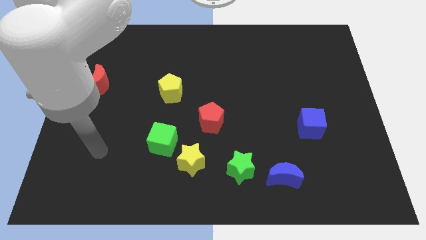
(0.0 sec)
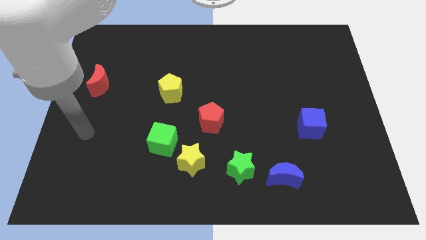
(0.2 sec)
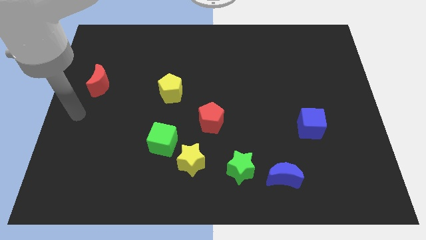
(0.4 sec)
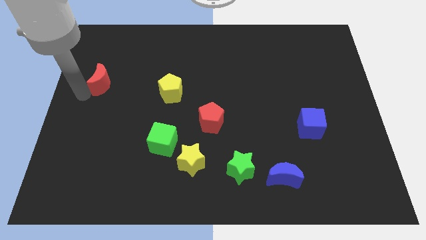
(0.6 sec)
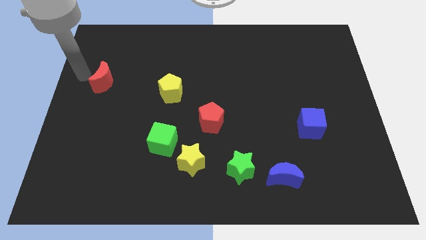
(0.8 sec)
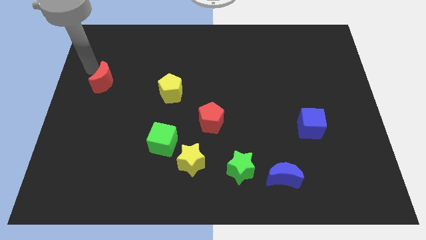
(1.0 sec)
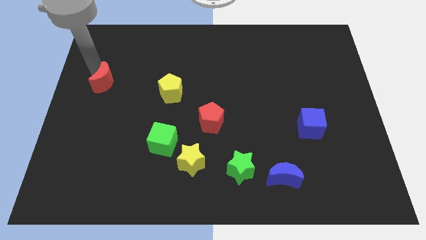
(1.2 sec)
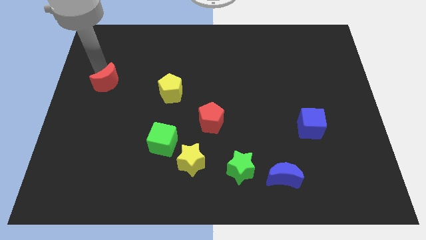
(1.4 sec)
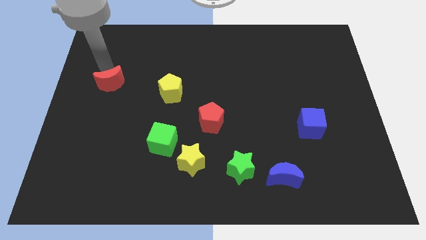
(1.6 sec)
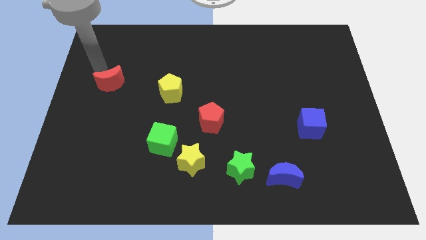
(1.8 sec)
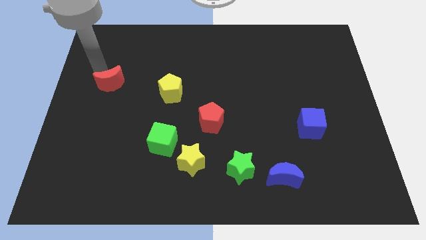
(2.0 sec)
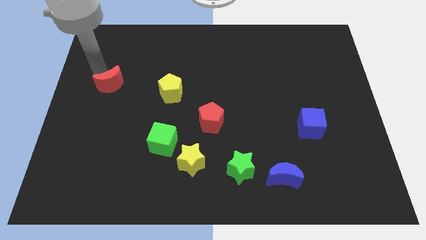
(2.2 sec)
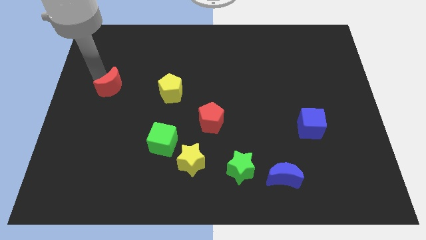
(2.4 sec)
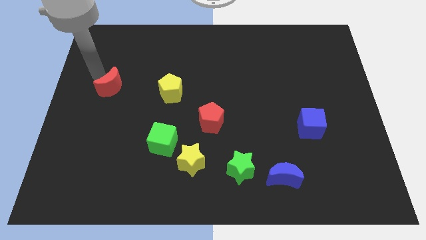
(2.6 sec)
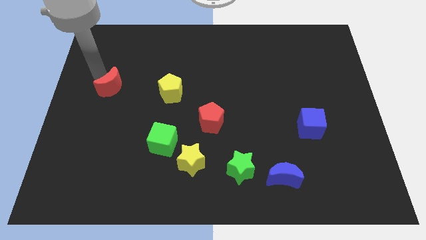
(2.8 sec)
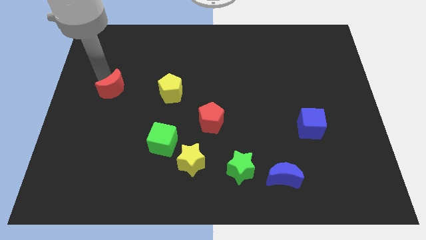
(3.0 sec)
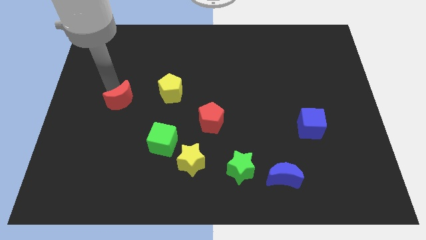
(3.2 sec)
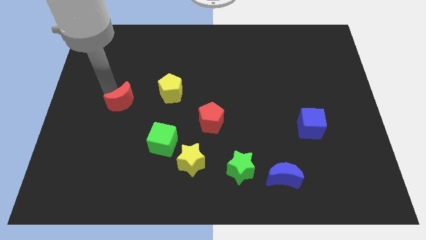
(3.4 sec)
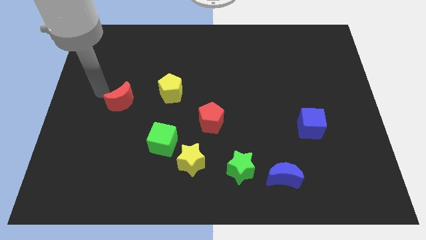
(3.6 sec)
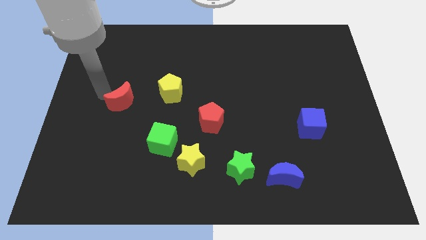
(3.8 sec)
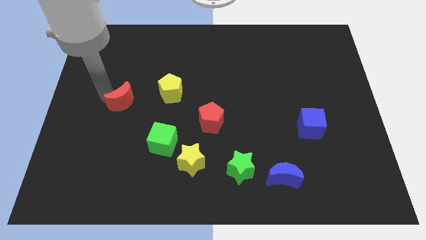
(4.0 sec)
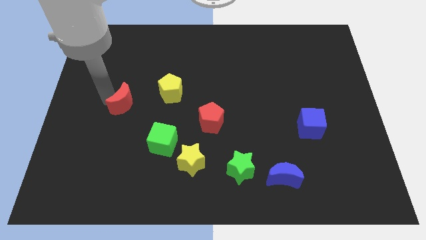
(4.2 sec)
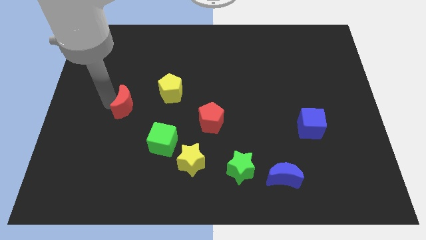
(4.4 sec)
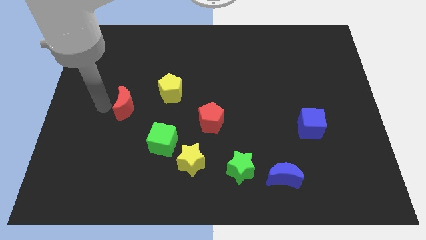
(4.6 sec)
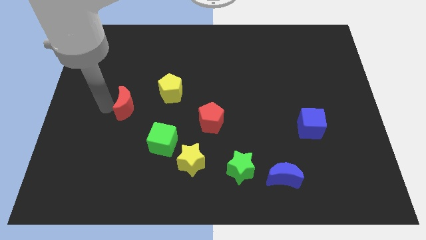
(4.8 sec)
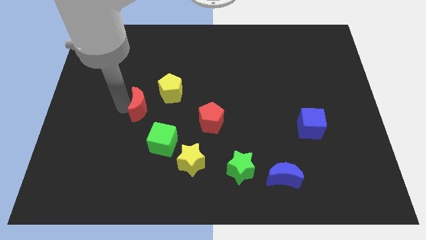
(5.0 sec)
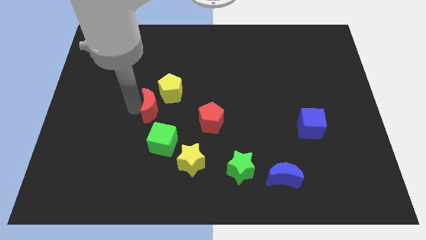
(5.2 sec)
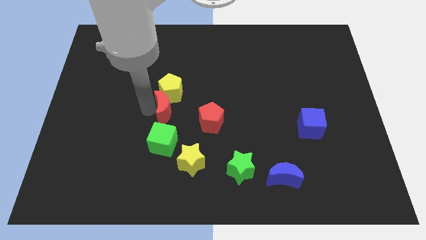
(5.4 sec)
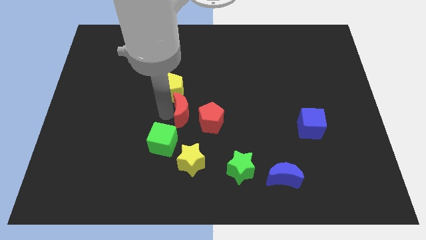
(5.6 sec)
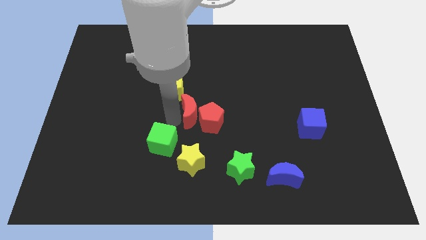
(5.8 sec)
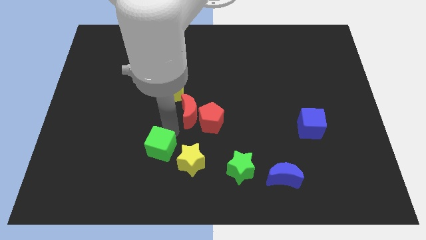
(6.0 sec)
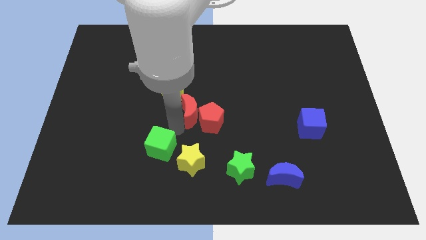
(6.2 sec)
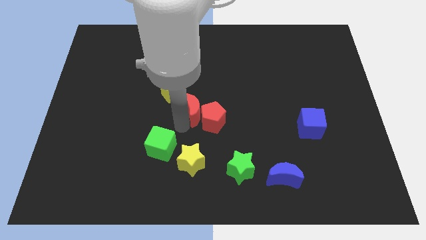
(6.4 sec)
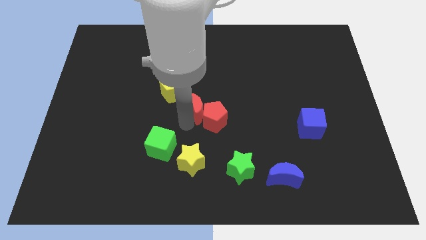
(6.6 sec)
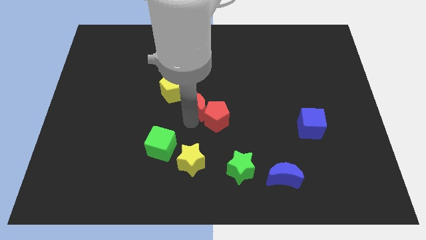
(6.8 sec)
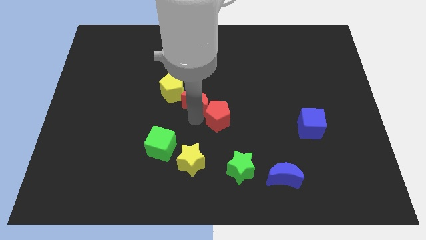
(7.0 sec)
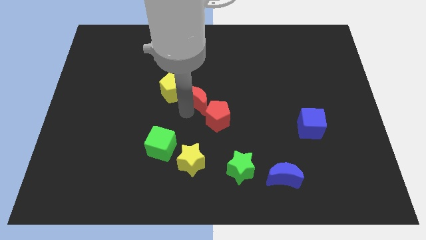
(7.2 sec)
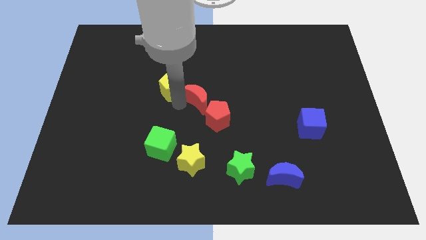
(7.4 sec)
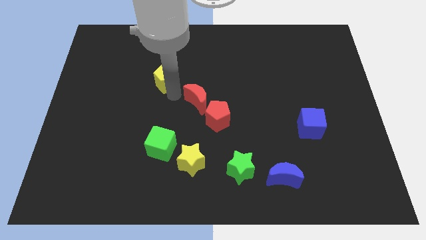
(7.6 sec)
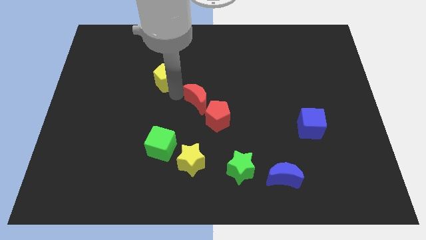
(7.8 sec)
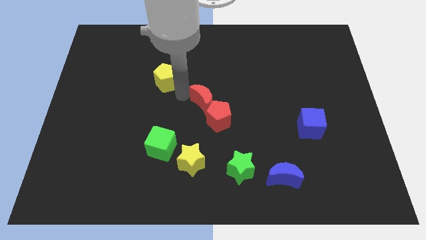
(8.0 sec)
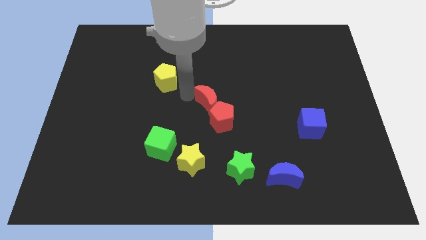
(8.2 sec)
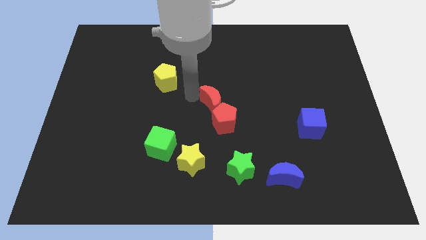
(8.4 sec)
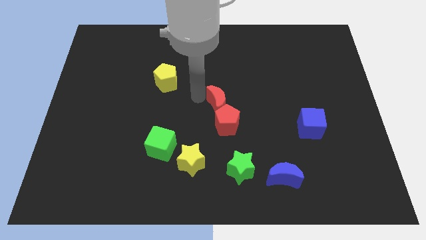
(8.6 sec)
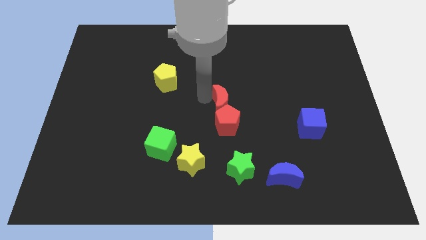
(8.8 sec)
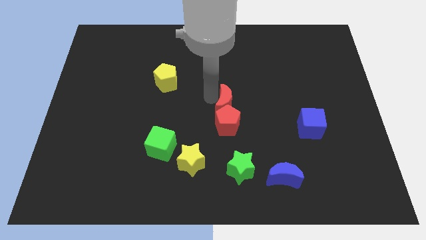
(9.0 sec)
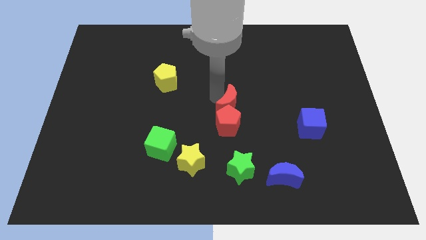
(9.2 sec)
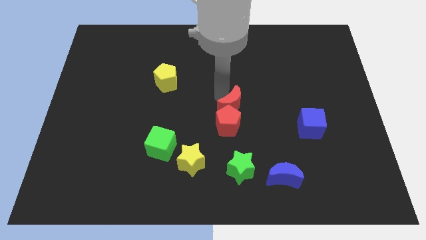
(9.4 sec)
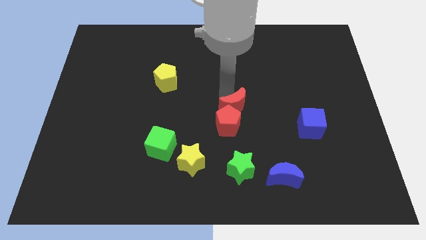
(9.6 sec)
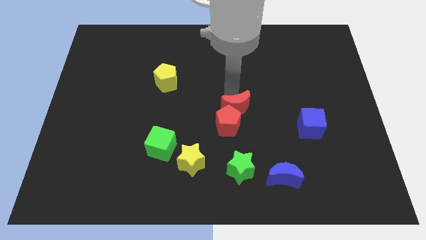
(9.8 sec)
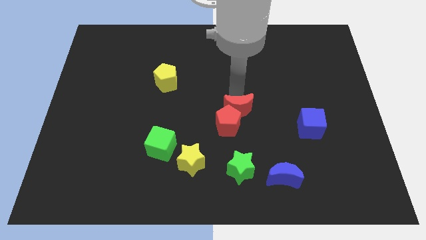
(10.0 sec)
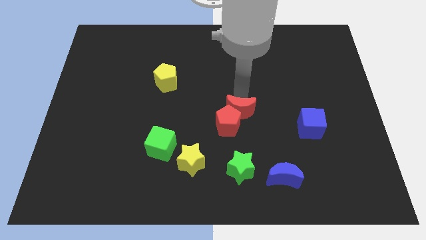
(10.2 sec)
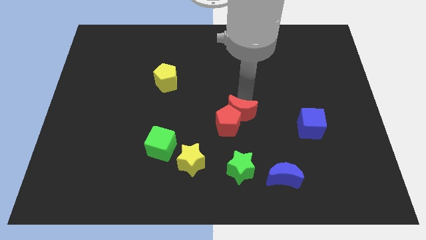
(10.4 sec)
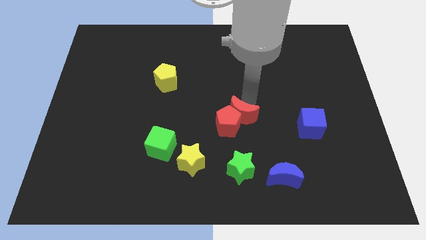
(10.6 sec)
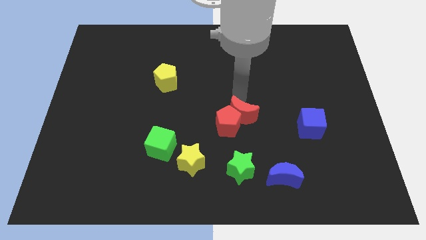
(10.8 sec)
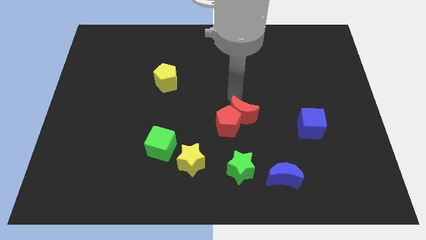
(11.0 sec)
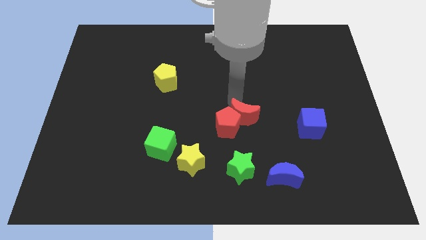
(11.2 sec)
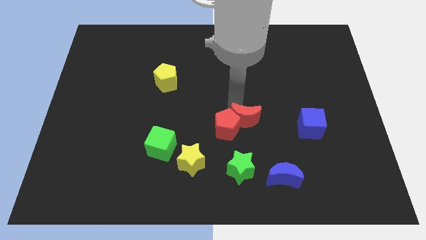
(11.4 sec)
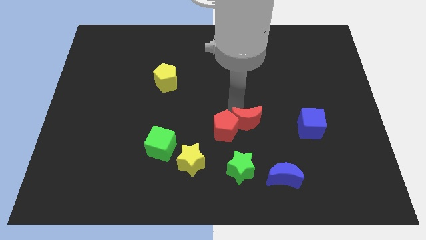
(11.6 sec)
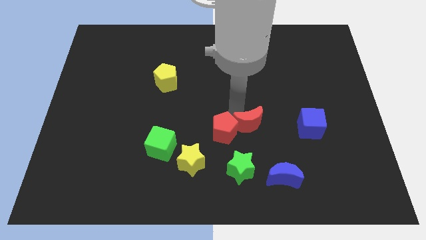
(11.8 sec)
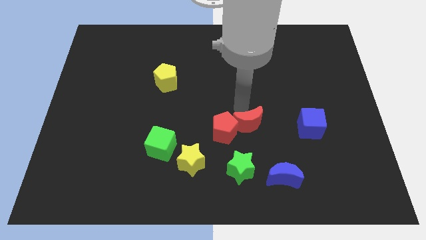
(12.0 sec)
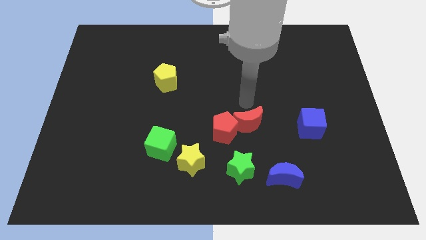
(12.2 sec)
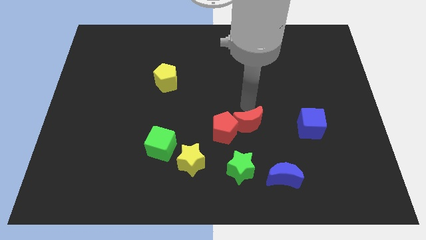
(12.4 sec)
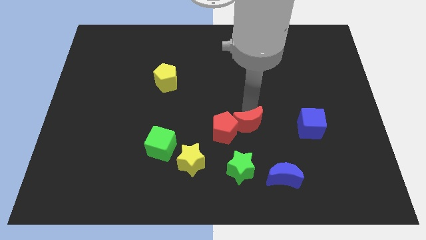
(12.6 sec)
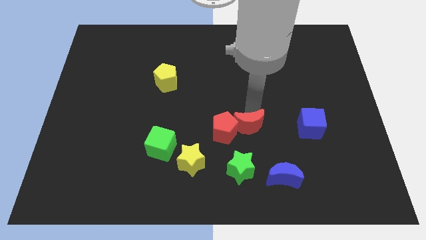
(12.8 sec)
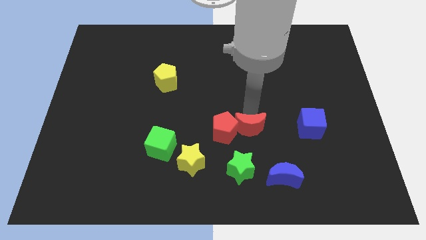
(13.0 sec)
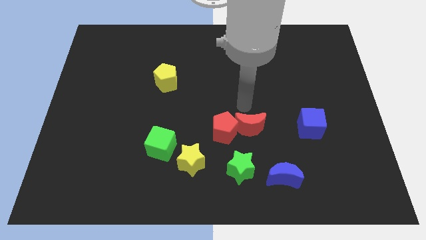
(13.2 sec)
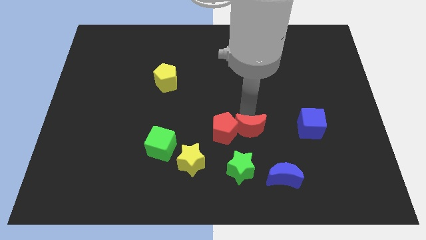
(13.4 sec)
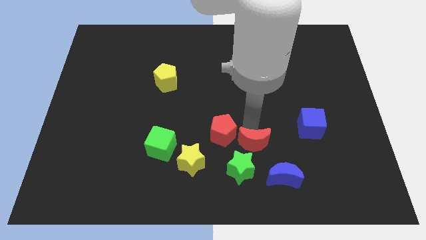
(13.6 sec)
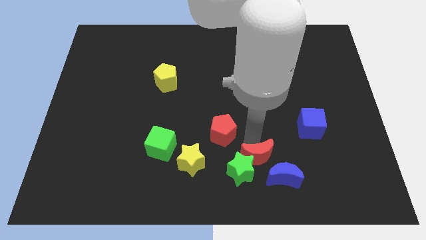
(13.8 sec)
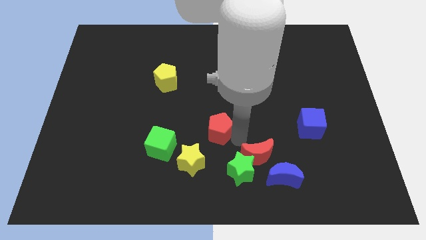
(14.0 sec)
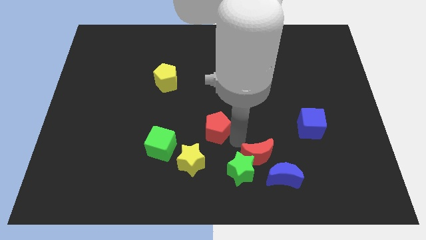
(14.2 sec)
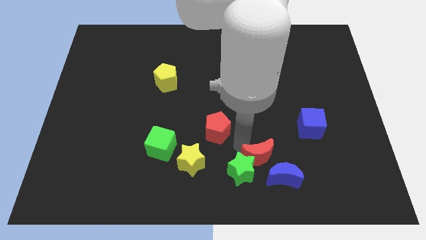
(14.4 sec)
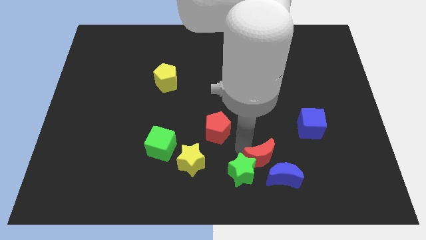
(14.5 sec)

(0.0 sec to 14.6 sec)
slide the red moon close to the blue moon

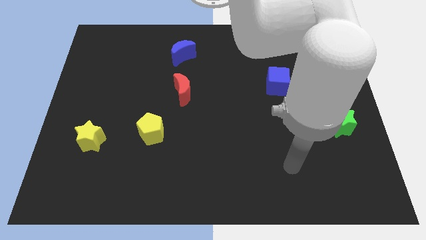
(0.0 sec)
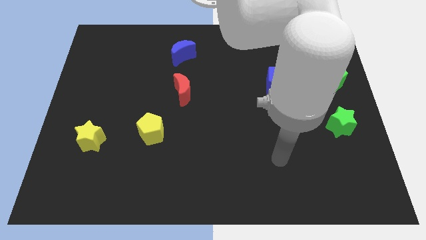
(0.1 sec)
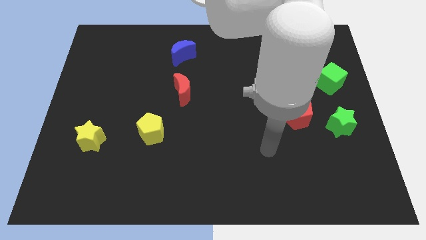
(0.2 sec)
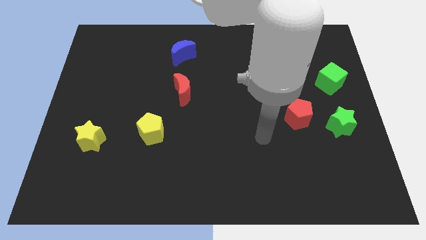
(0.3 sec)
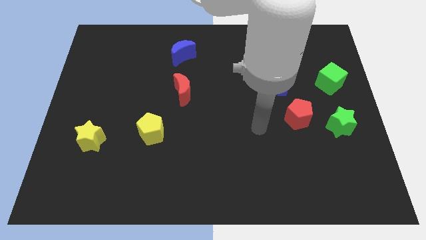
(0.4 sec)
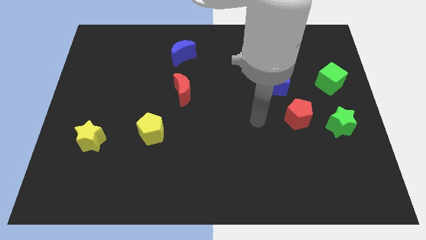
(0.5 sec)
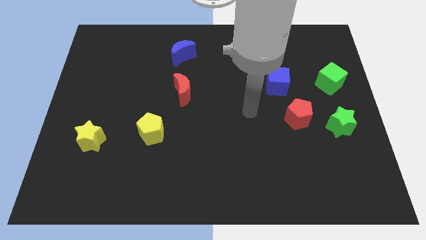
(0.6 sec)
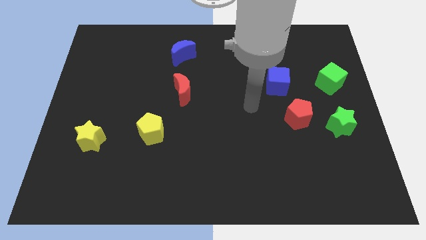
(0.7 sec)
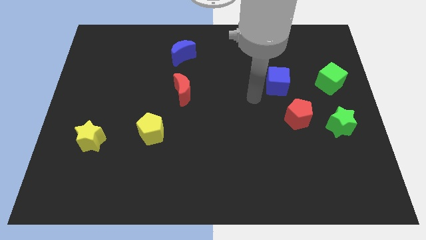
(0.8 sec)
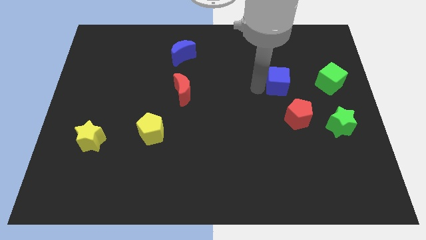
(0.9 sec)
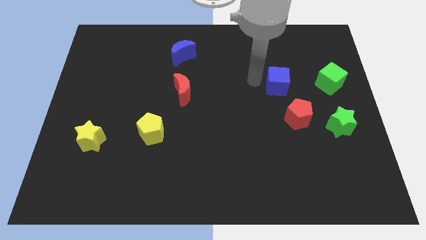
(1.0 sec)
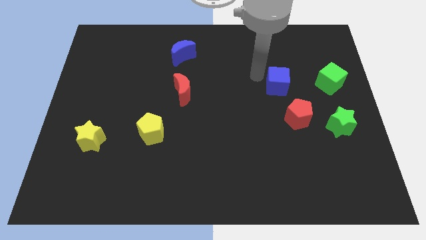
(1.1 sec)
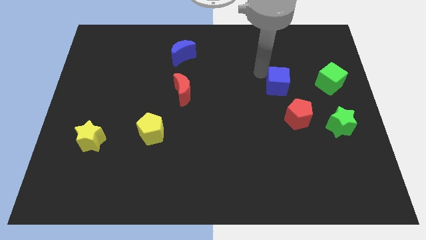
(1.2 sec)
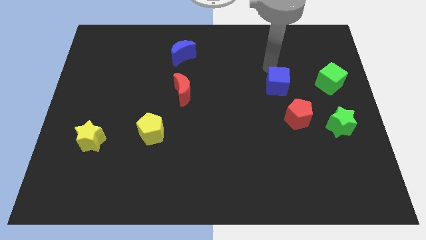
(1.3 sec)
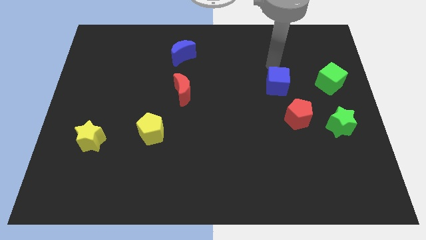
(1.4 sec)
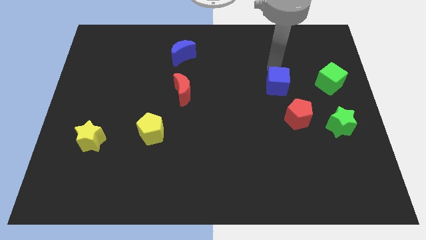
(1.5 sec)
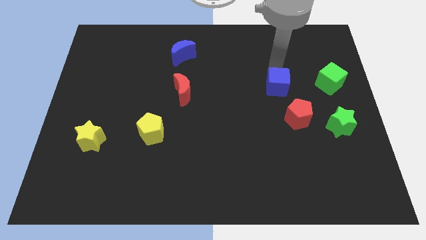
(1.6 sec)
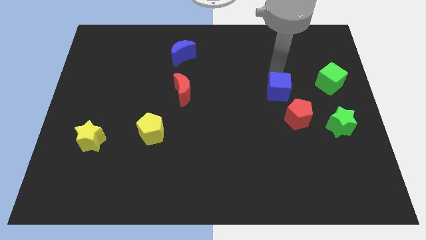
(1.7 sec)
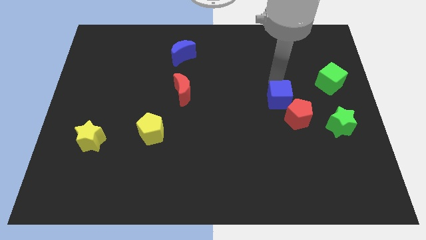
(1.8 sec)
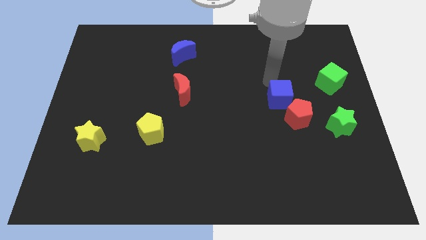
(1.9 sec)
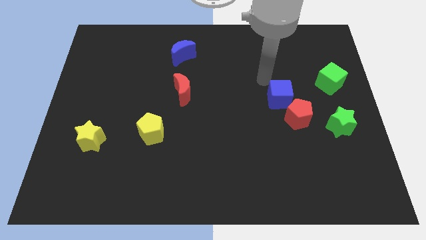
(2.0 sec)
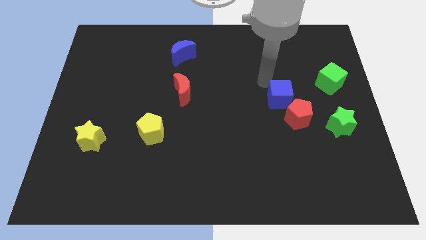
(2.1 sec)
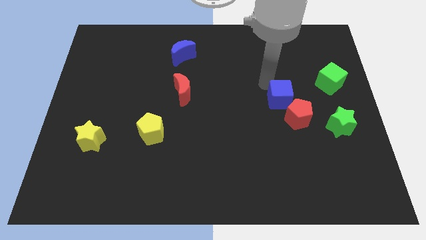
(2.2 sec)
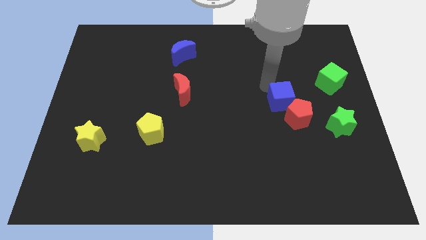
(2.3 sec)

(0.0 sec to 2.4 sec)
put the blue cube close to the red pentagon
